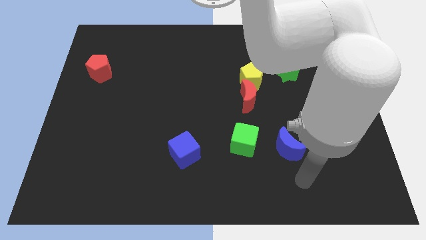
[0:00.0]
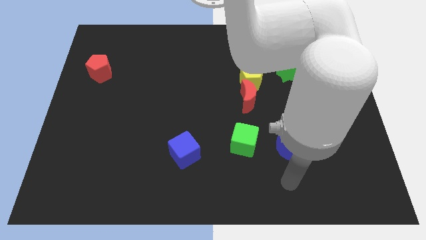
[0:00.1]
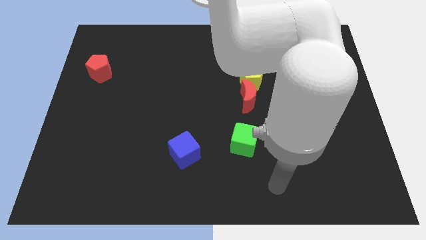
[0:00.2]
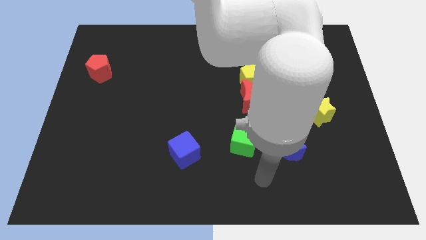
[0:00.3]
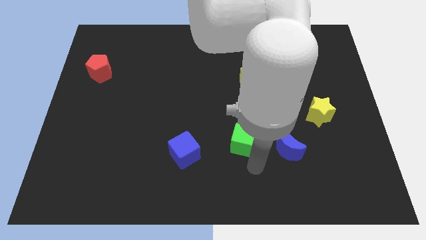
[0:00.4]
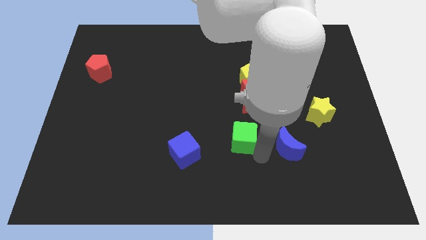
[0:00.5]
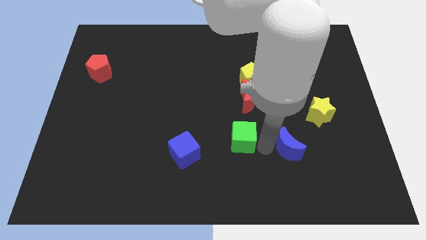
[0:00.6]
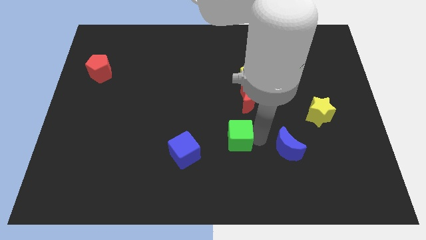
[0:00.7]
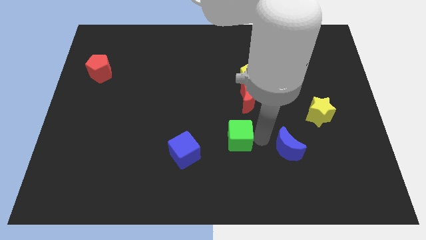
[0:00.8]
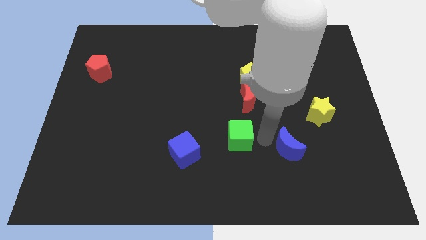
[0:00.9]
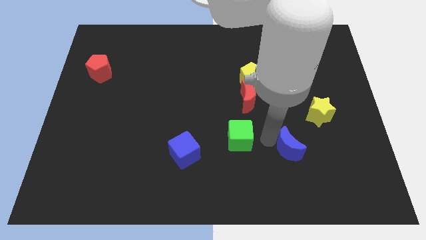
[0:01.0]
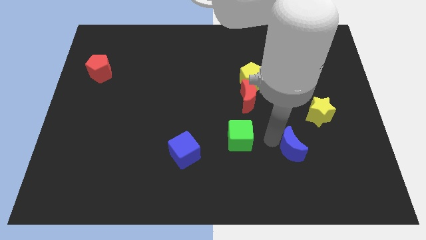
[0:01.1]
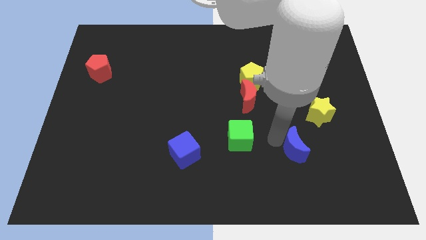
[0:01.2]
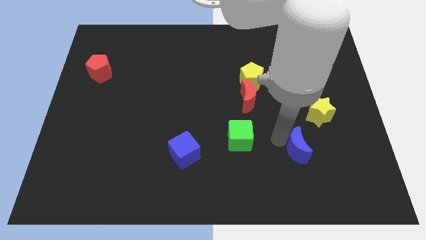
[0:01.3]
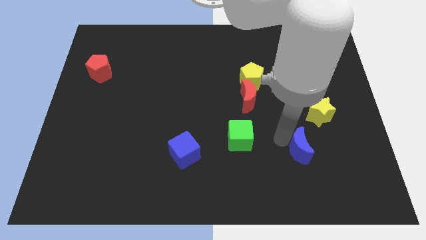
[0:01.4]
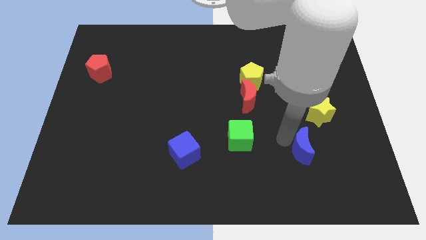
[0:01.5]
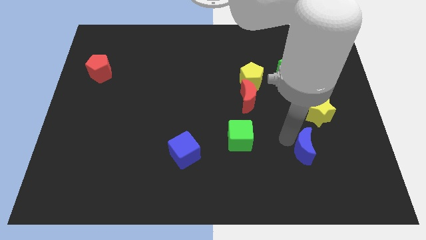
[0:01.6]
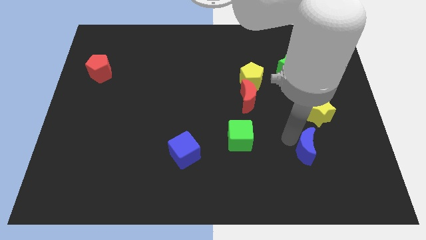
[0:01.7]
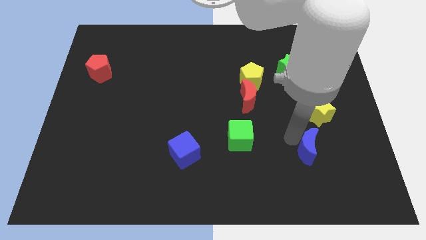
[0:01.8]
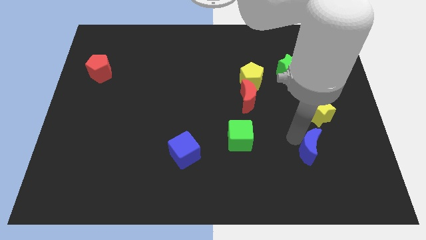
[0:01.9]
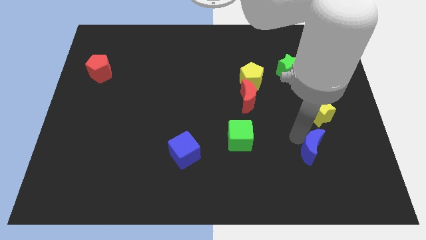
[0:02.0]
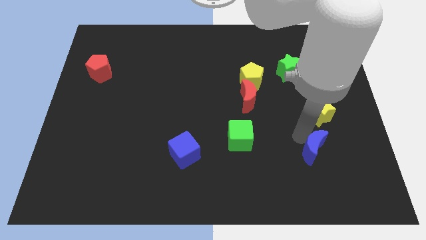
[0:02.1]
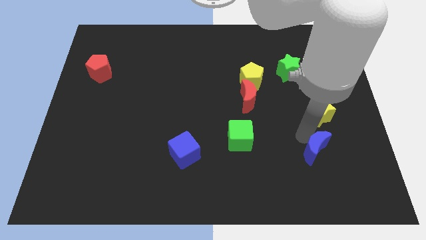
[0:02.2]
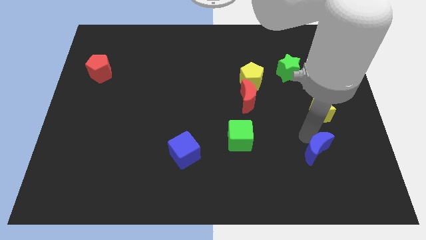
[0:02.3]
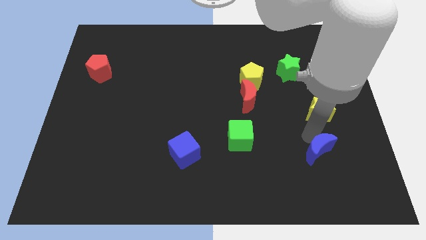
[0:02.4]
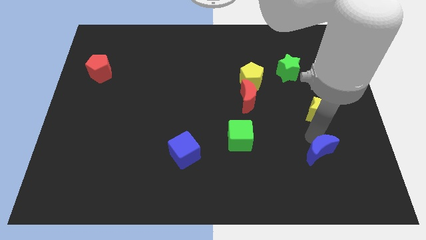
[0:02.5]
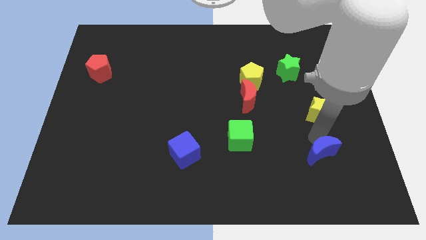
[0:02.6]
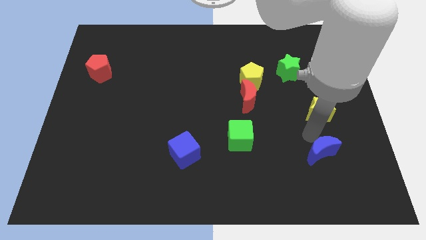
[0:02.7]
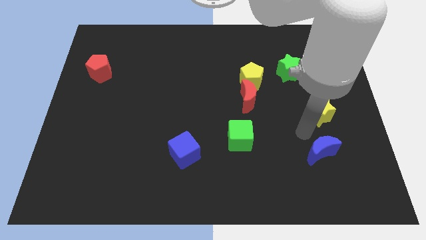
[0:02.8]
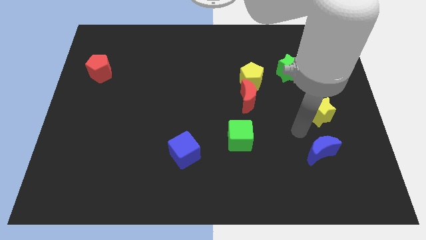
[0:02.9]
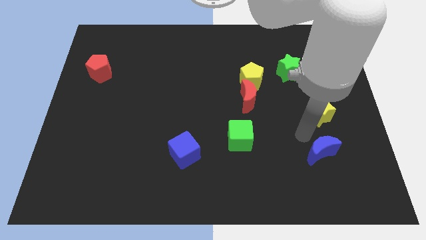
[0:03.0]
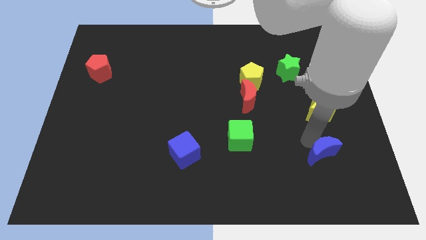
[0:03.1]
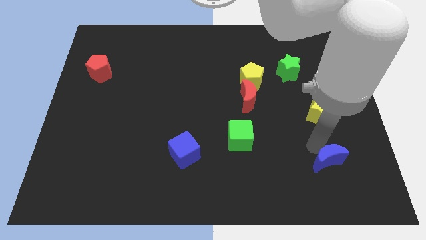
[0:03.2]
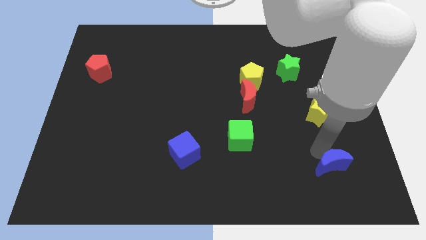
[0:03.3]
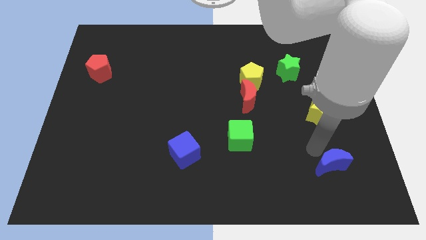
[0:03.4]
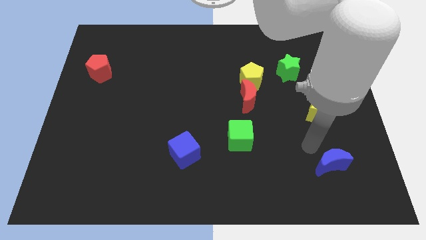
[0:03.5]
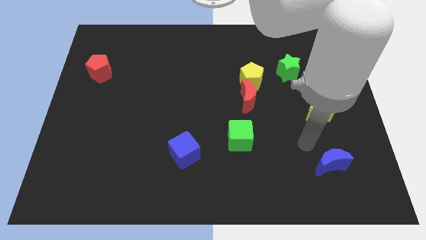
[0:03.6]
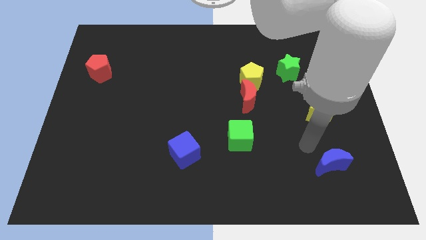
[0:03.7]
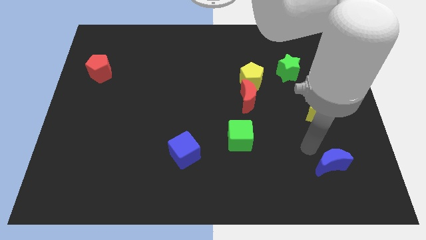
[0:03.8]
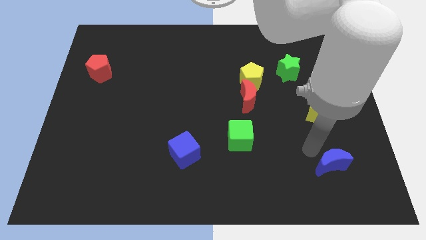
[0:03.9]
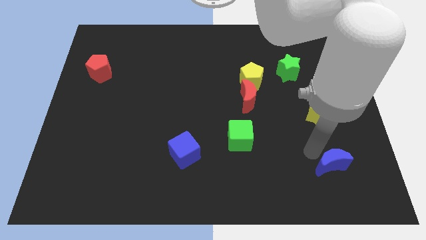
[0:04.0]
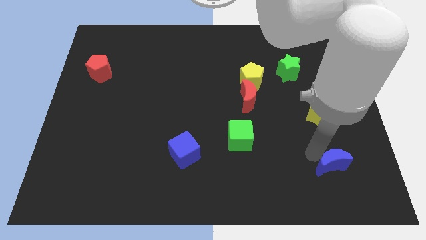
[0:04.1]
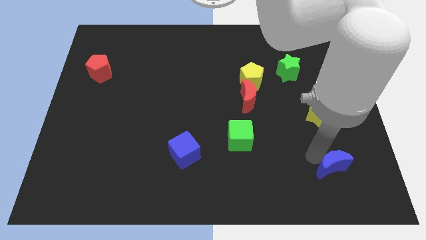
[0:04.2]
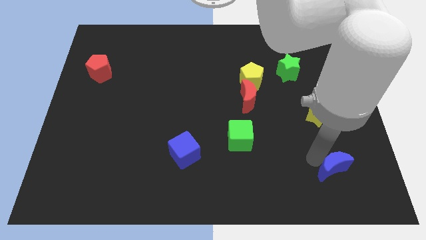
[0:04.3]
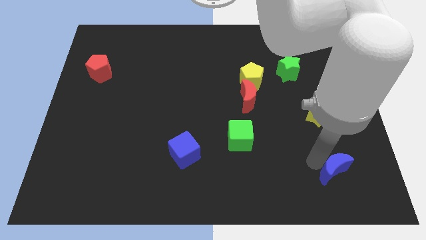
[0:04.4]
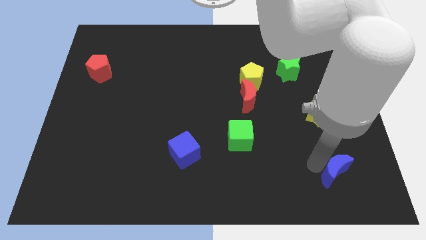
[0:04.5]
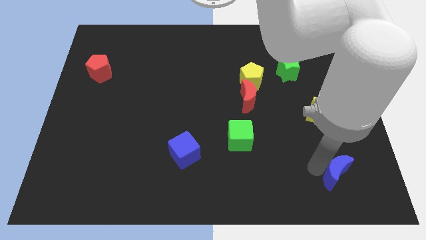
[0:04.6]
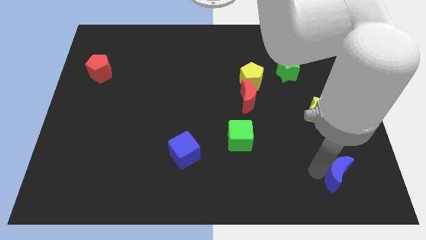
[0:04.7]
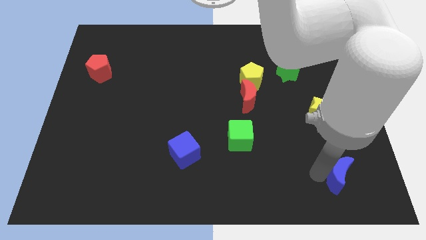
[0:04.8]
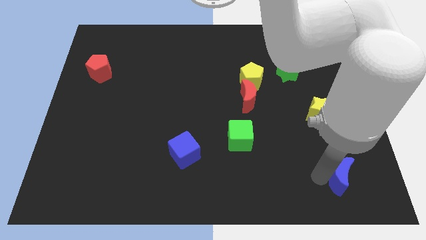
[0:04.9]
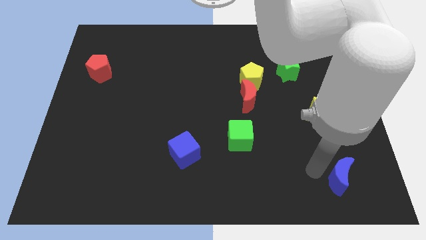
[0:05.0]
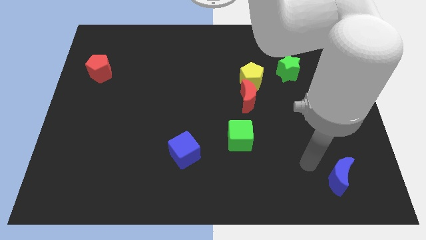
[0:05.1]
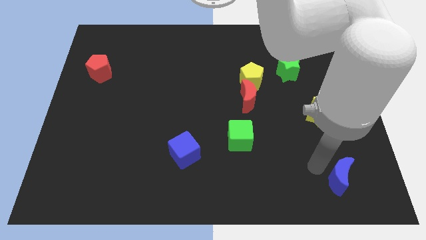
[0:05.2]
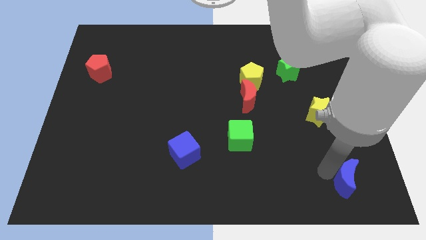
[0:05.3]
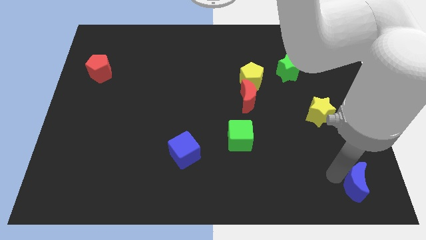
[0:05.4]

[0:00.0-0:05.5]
slide the blue moon to the lower right corner

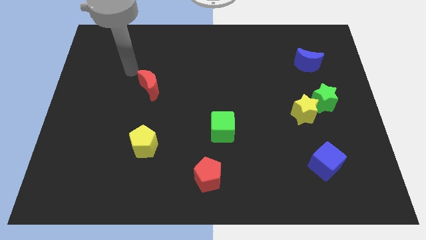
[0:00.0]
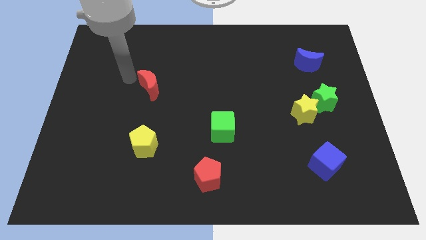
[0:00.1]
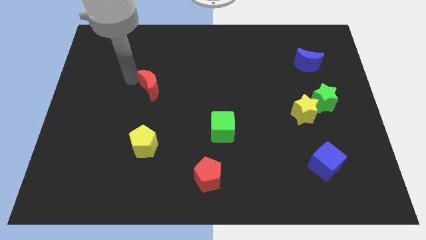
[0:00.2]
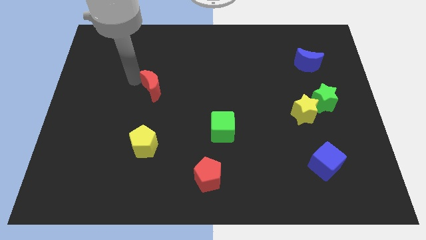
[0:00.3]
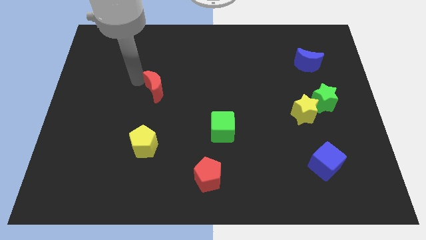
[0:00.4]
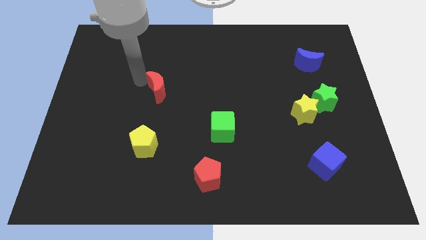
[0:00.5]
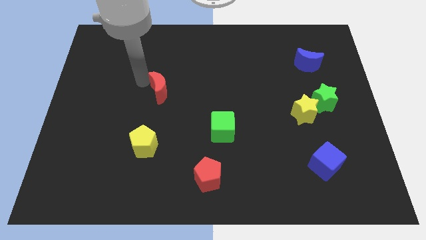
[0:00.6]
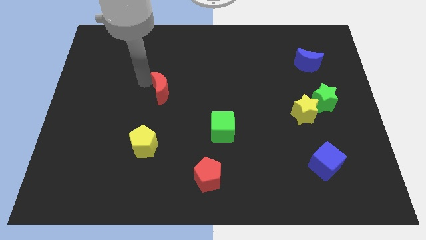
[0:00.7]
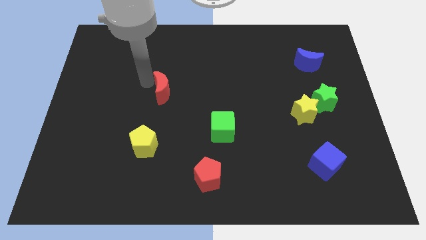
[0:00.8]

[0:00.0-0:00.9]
put the red moon to the center
